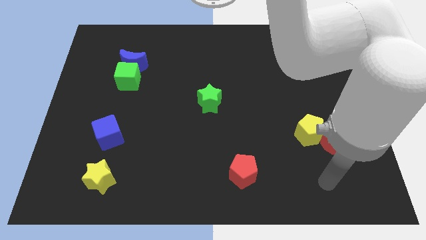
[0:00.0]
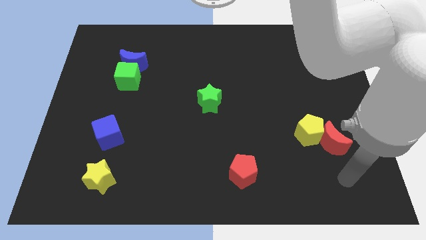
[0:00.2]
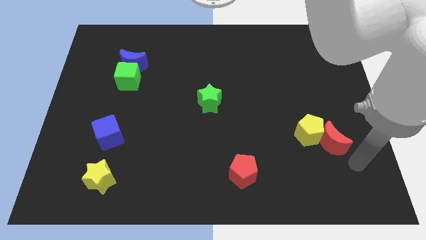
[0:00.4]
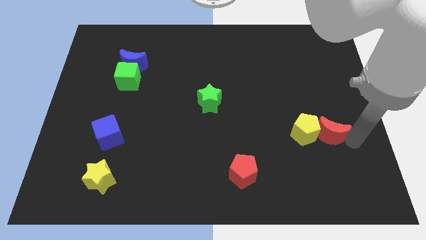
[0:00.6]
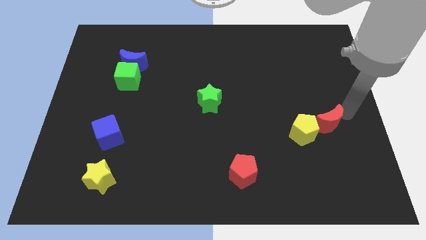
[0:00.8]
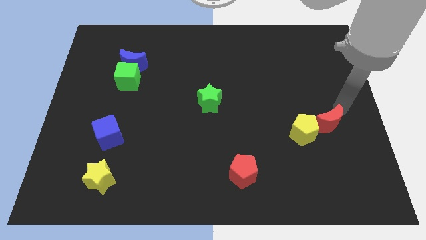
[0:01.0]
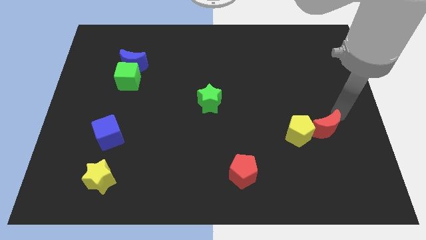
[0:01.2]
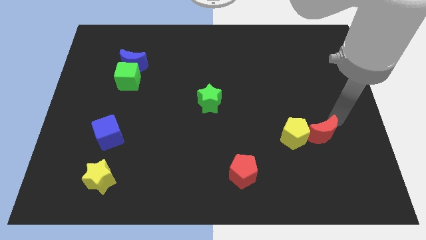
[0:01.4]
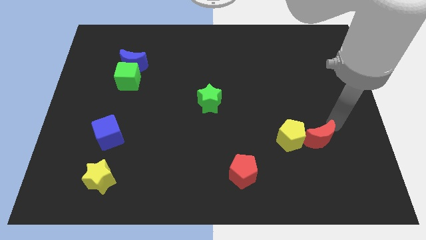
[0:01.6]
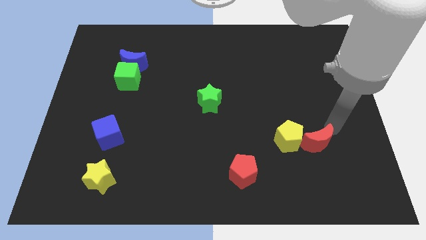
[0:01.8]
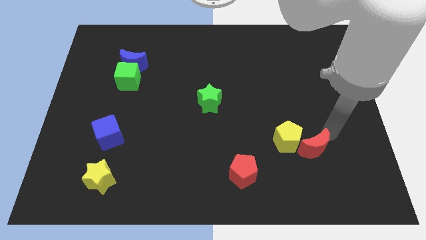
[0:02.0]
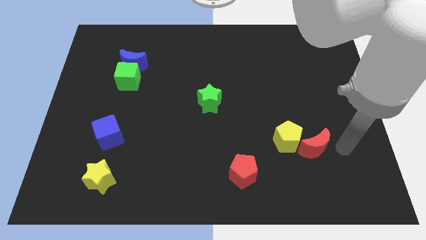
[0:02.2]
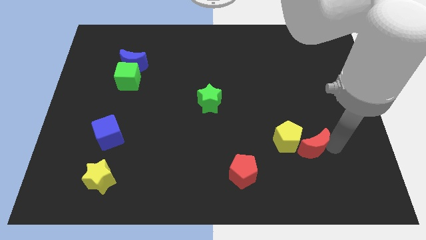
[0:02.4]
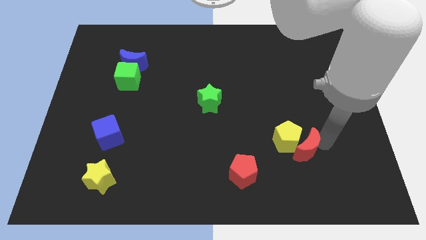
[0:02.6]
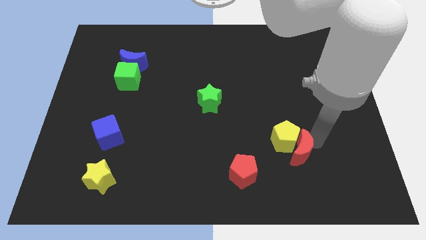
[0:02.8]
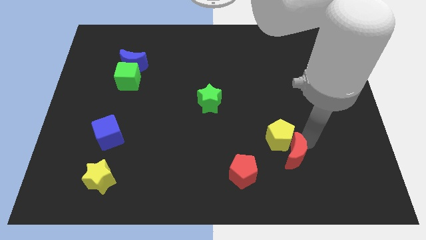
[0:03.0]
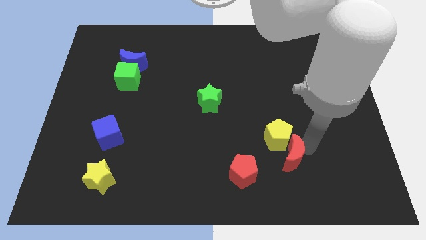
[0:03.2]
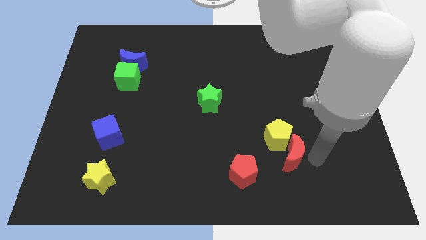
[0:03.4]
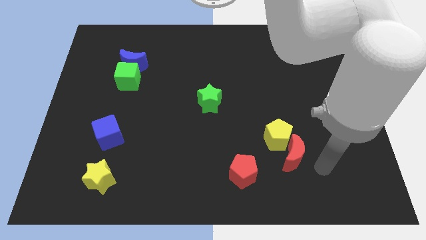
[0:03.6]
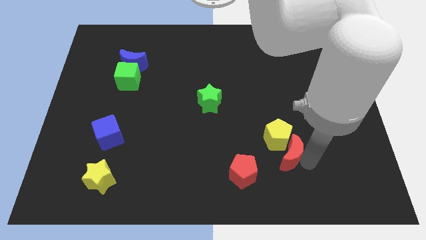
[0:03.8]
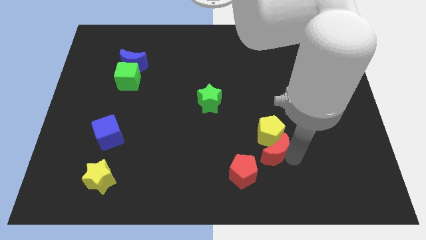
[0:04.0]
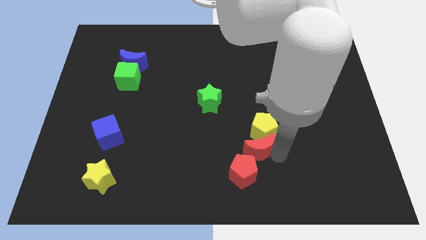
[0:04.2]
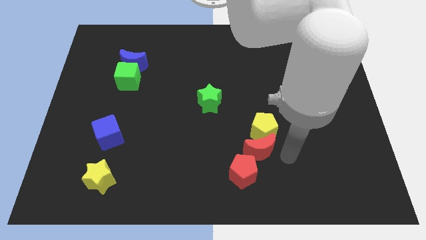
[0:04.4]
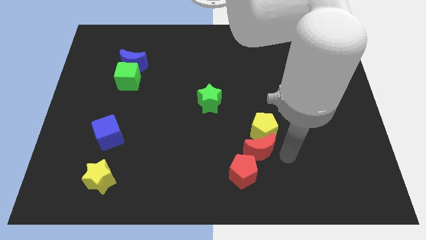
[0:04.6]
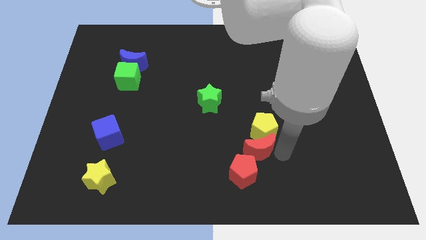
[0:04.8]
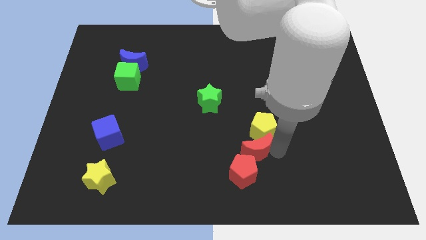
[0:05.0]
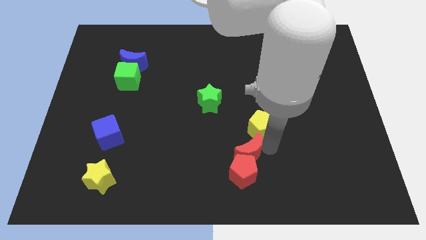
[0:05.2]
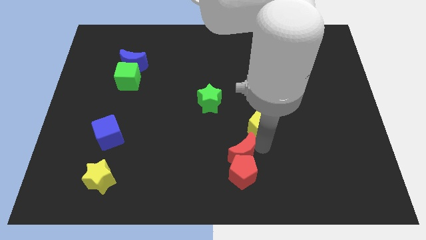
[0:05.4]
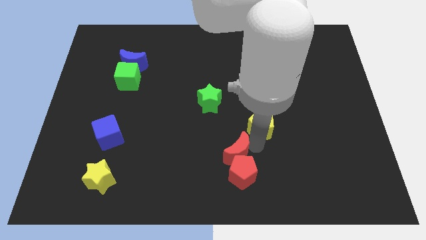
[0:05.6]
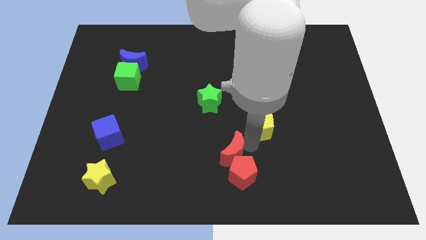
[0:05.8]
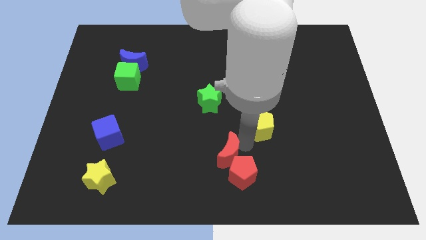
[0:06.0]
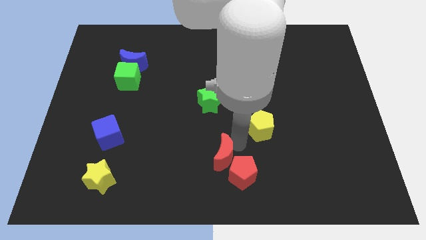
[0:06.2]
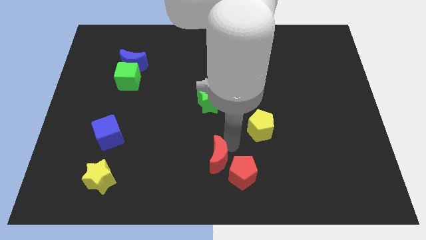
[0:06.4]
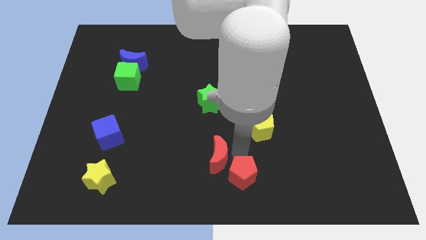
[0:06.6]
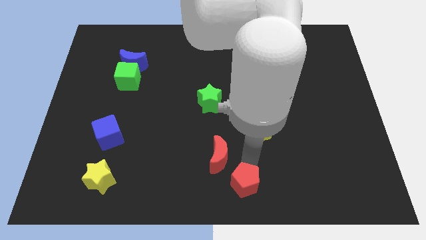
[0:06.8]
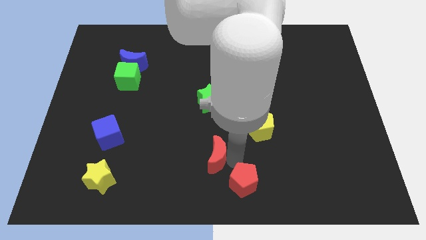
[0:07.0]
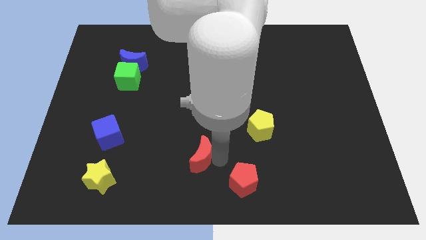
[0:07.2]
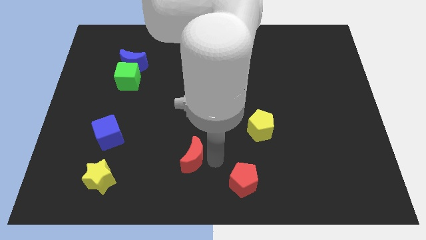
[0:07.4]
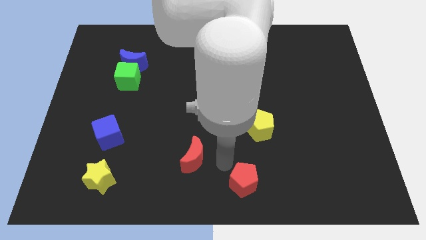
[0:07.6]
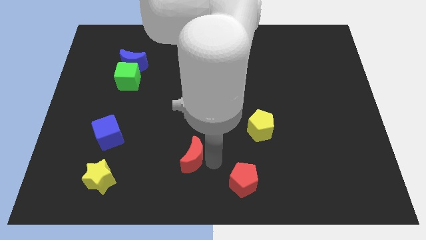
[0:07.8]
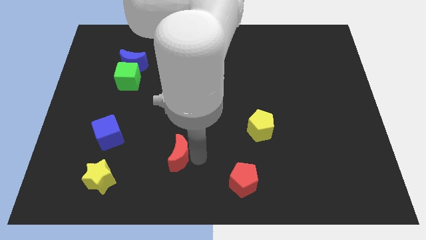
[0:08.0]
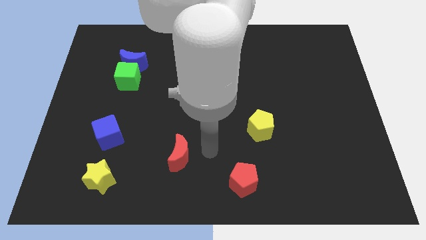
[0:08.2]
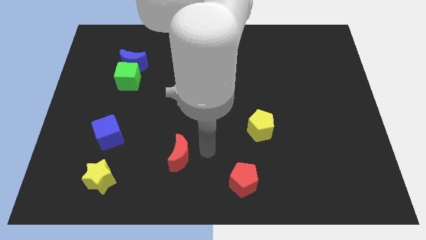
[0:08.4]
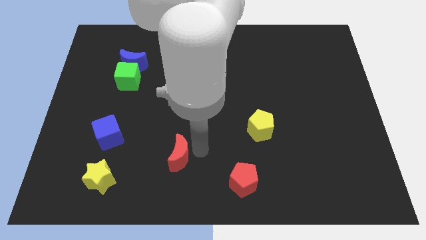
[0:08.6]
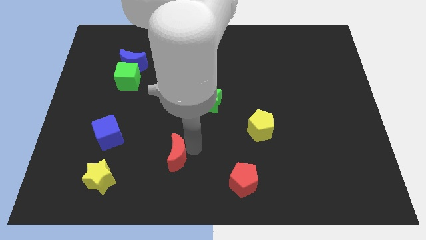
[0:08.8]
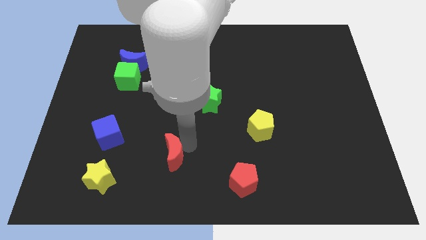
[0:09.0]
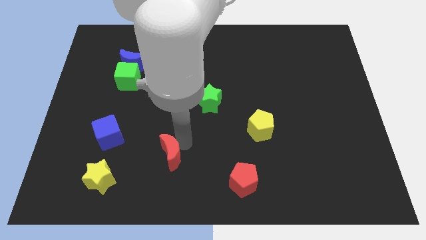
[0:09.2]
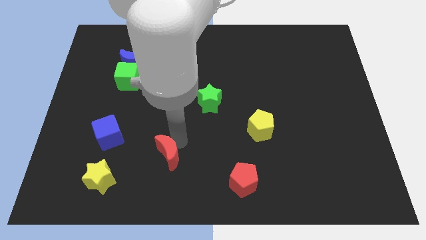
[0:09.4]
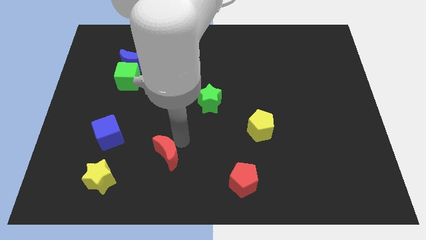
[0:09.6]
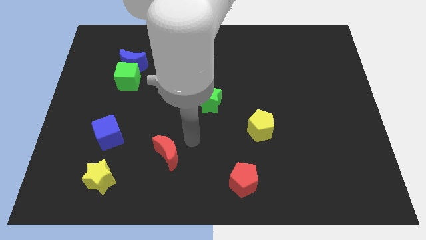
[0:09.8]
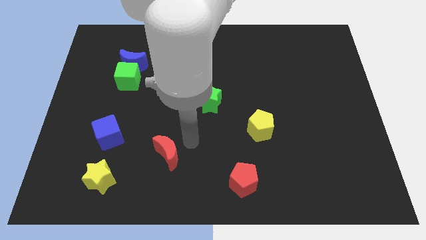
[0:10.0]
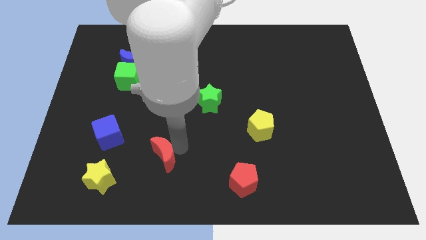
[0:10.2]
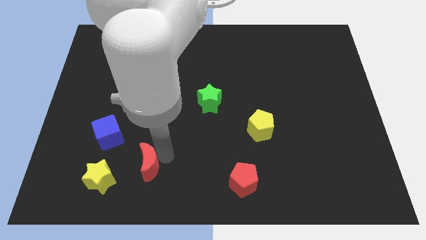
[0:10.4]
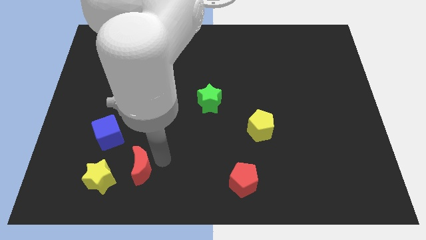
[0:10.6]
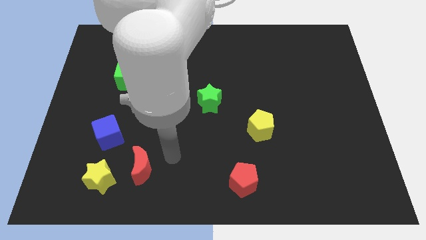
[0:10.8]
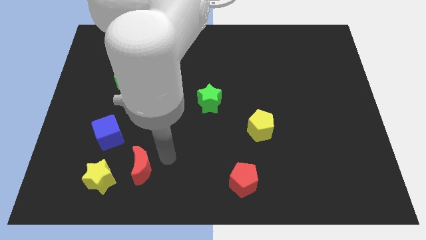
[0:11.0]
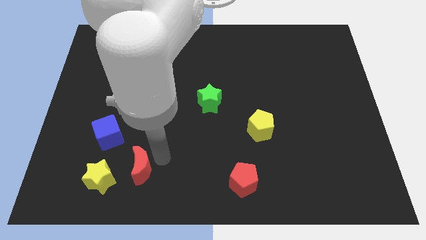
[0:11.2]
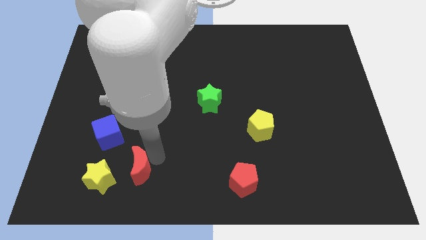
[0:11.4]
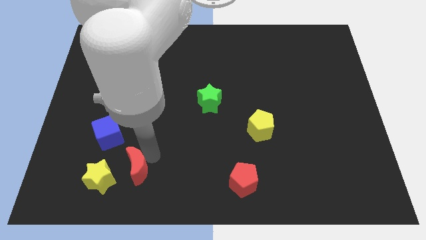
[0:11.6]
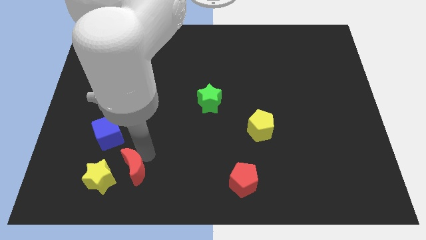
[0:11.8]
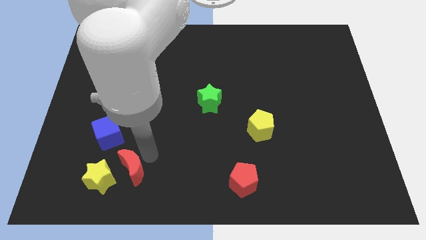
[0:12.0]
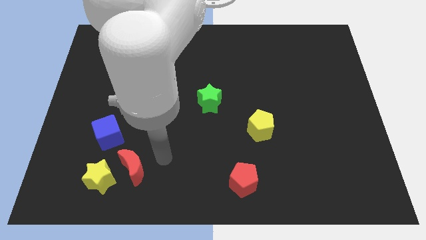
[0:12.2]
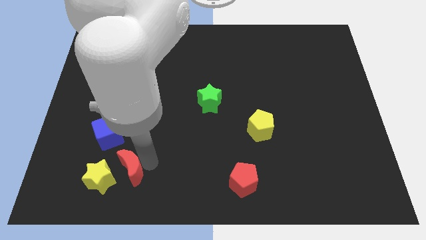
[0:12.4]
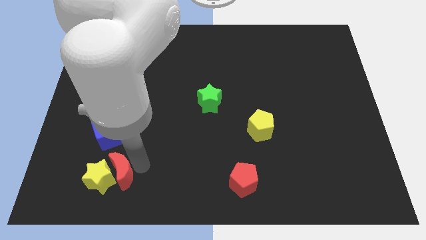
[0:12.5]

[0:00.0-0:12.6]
slide the red moon next to the yellow star
